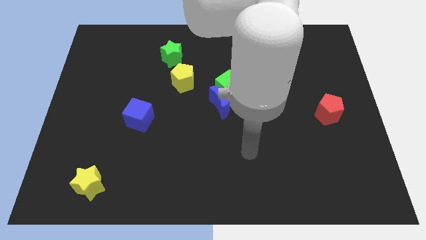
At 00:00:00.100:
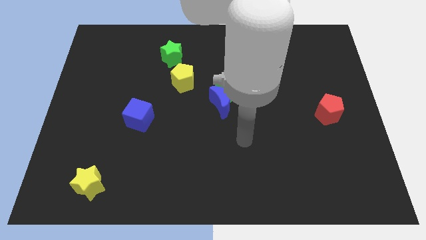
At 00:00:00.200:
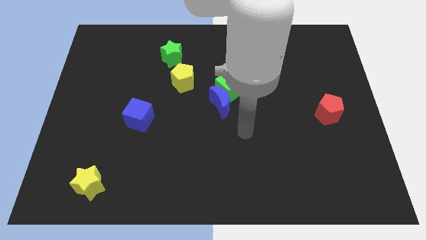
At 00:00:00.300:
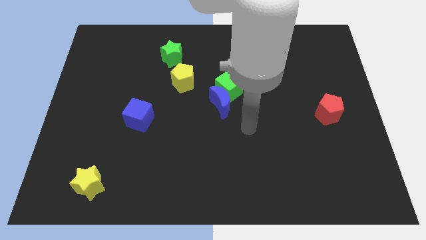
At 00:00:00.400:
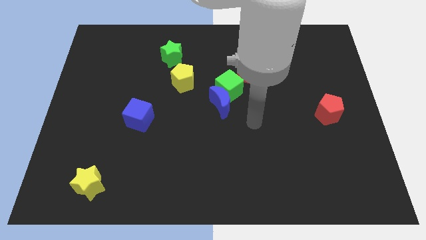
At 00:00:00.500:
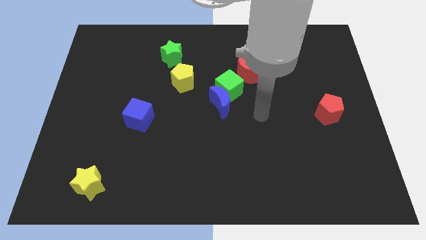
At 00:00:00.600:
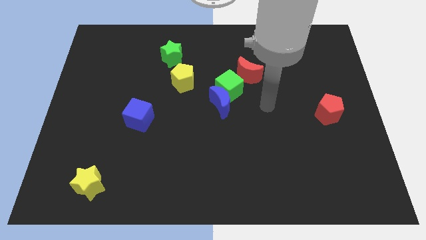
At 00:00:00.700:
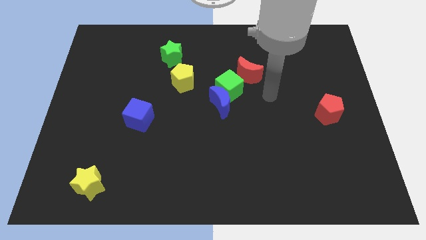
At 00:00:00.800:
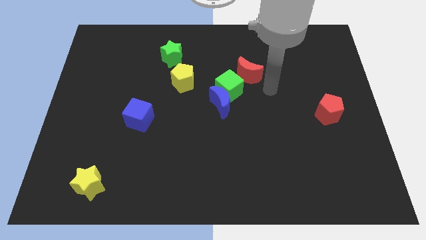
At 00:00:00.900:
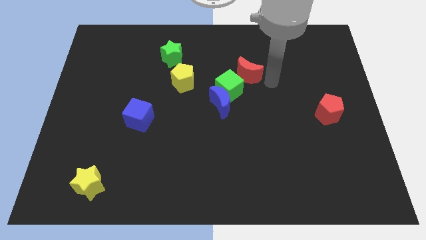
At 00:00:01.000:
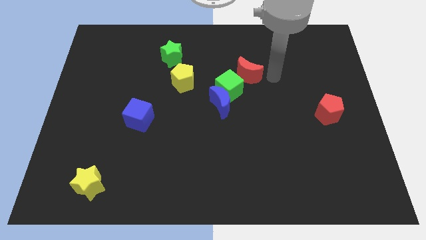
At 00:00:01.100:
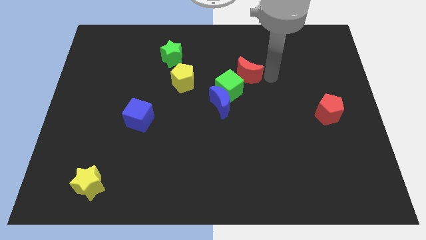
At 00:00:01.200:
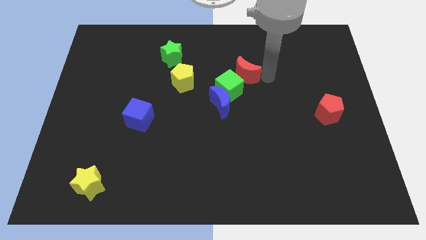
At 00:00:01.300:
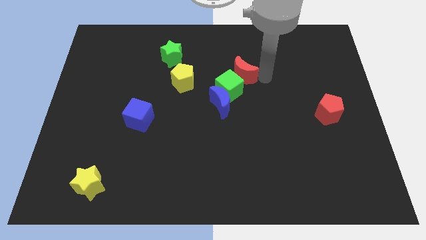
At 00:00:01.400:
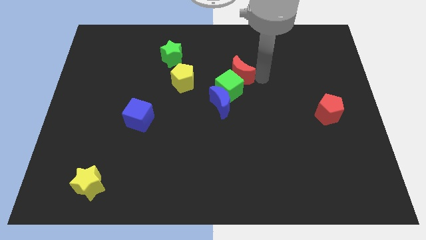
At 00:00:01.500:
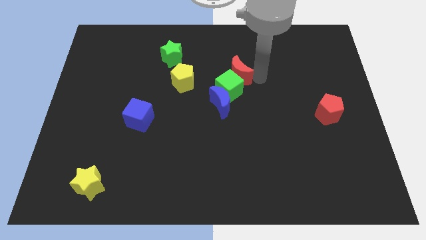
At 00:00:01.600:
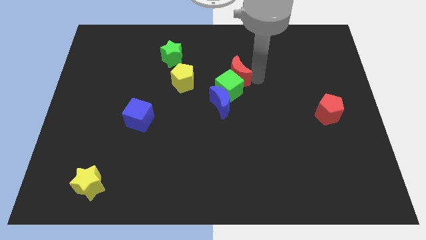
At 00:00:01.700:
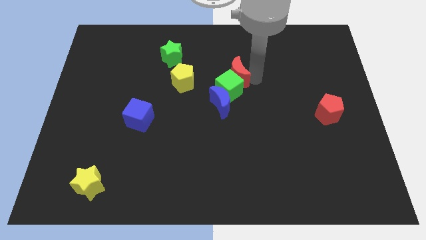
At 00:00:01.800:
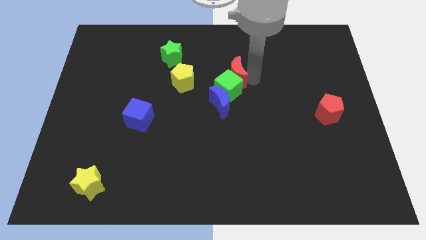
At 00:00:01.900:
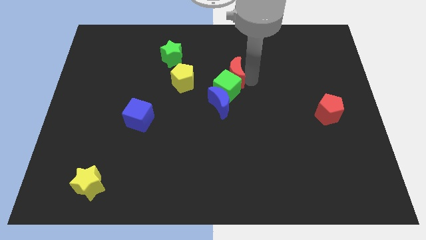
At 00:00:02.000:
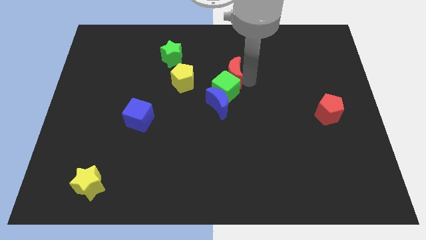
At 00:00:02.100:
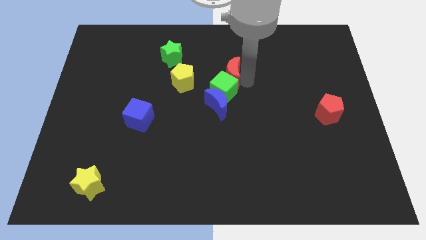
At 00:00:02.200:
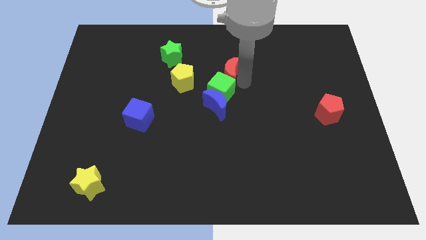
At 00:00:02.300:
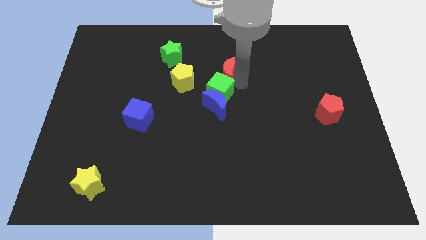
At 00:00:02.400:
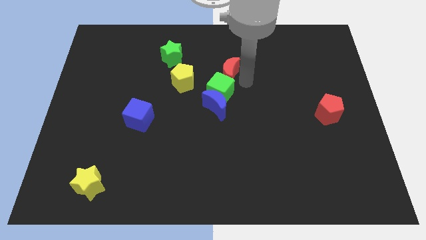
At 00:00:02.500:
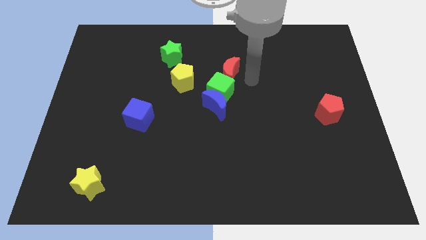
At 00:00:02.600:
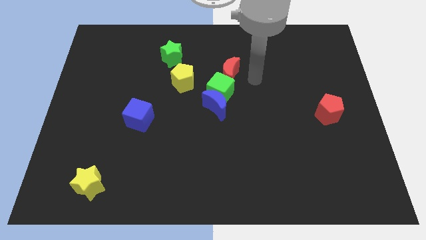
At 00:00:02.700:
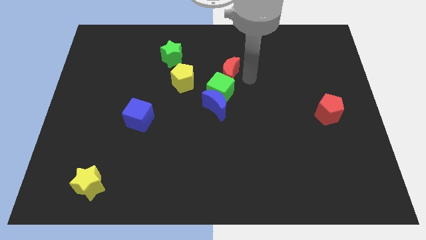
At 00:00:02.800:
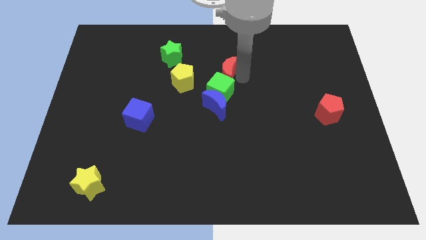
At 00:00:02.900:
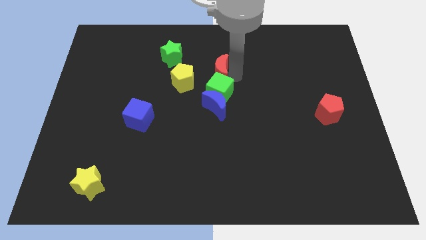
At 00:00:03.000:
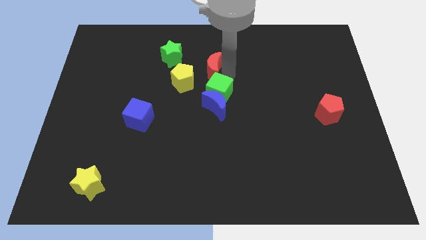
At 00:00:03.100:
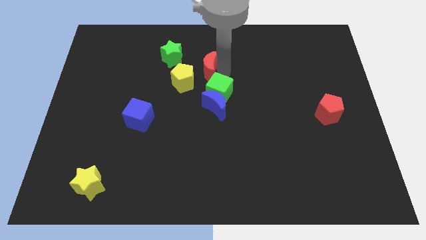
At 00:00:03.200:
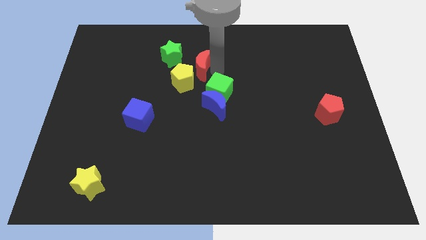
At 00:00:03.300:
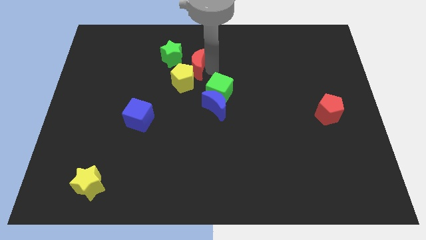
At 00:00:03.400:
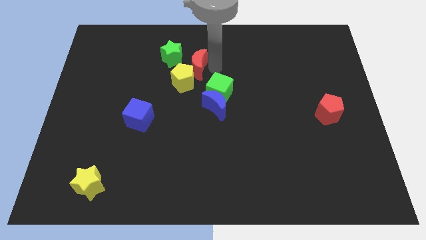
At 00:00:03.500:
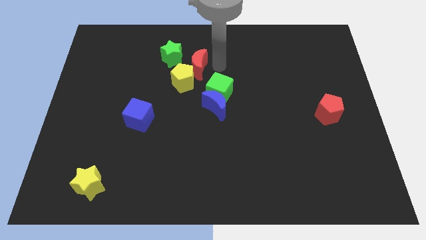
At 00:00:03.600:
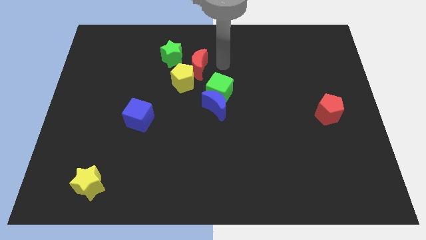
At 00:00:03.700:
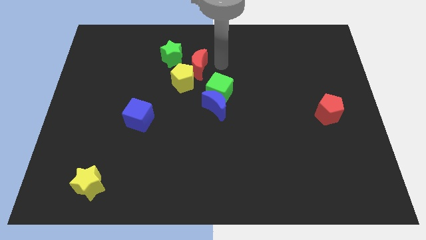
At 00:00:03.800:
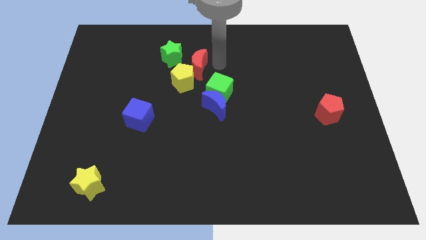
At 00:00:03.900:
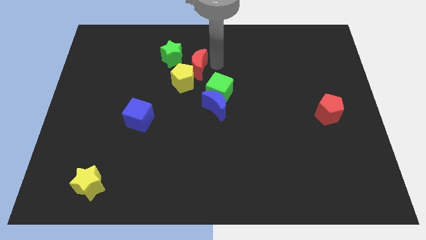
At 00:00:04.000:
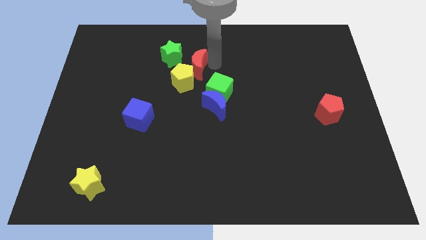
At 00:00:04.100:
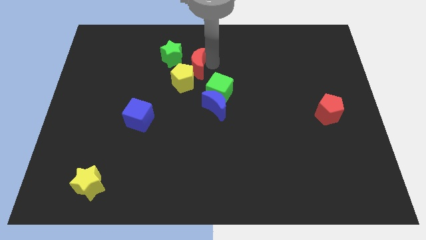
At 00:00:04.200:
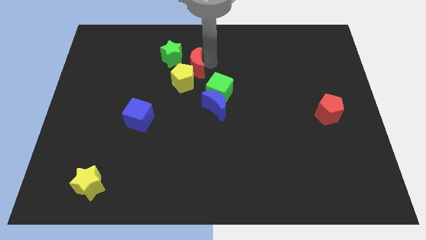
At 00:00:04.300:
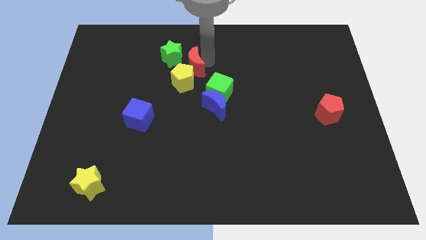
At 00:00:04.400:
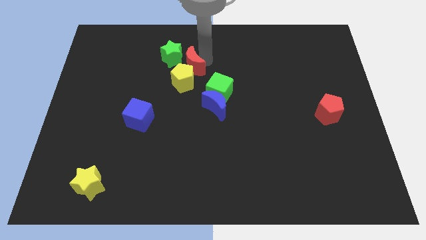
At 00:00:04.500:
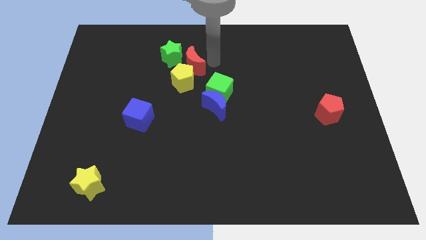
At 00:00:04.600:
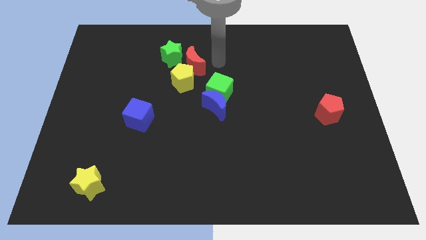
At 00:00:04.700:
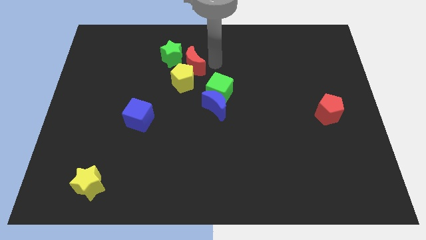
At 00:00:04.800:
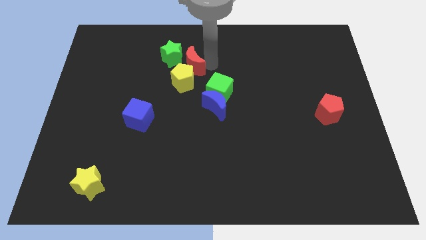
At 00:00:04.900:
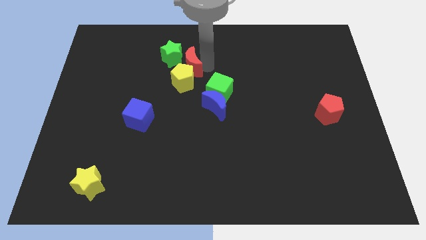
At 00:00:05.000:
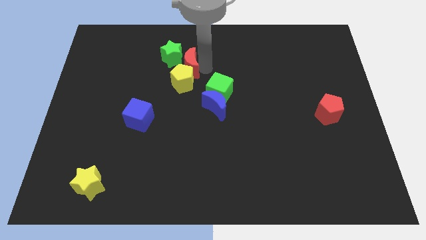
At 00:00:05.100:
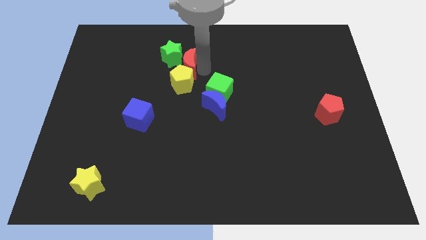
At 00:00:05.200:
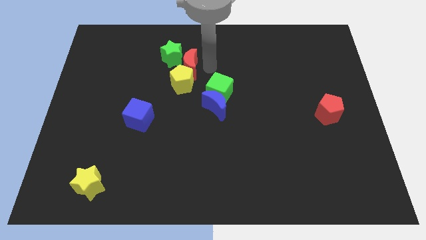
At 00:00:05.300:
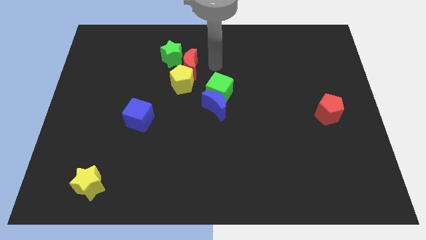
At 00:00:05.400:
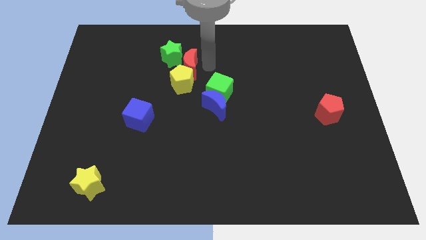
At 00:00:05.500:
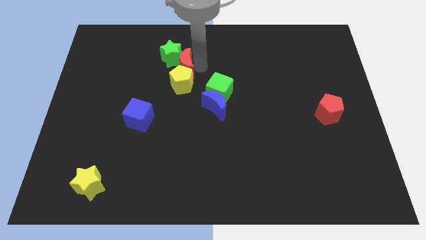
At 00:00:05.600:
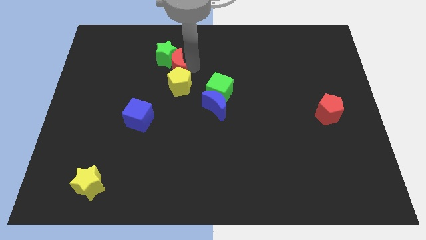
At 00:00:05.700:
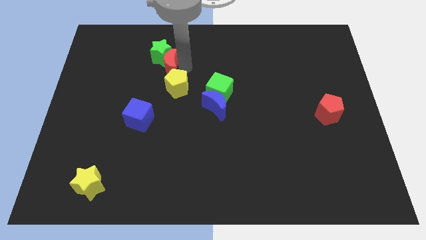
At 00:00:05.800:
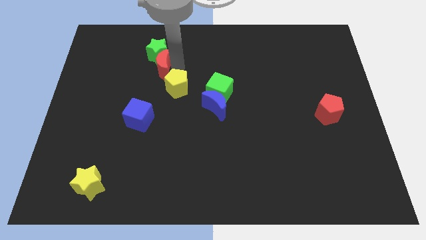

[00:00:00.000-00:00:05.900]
slide the red moon to the bottom left of the green star
